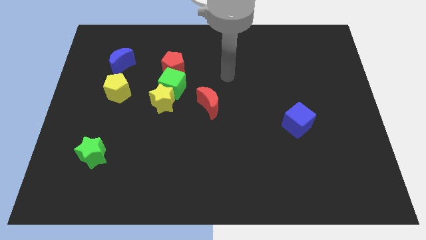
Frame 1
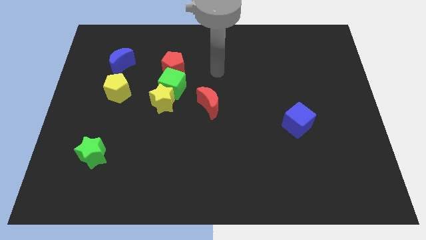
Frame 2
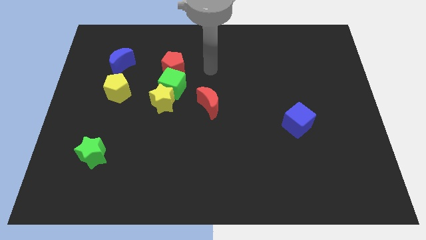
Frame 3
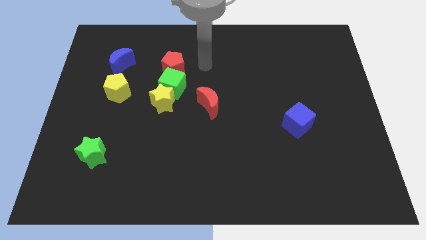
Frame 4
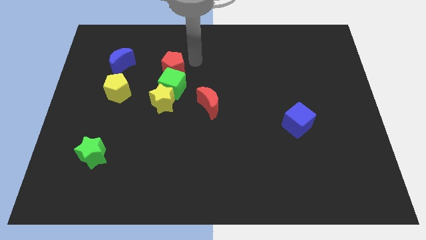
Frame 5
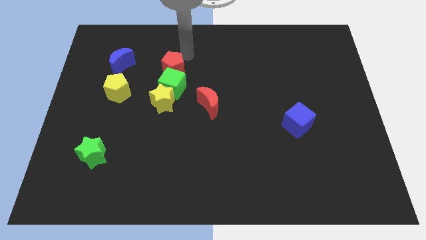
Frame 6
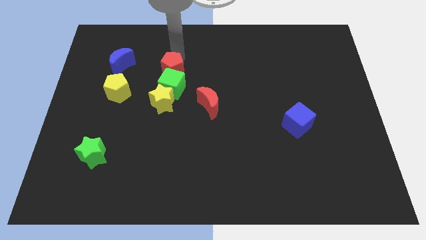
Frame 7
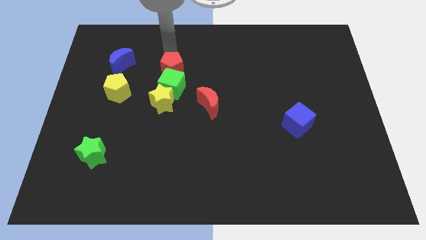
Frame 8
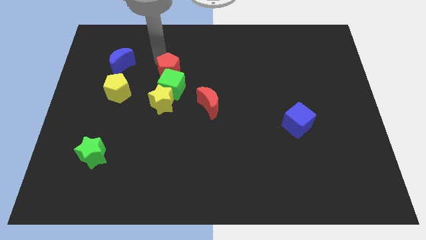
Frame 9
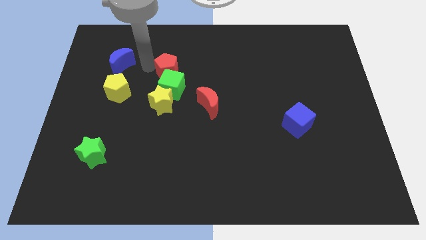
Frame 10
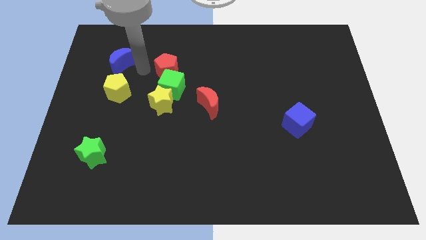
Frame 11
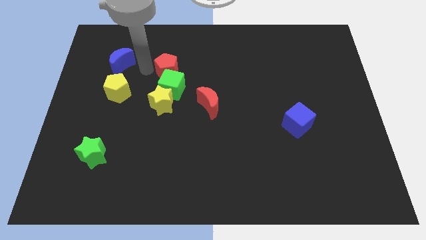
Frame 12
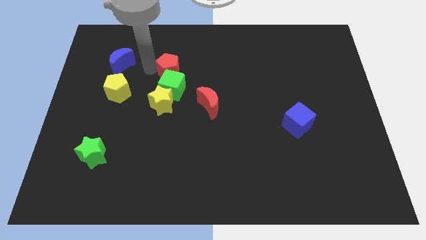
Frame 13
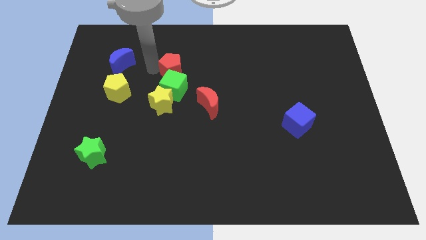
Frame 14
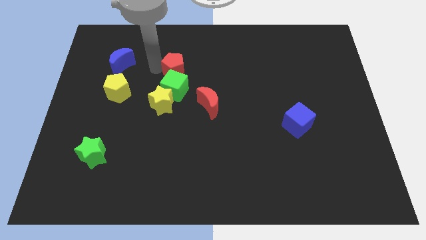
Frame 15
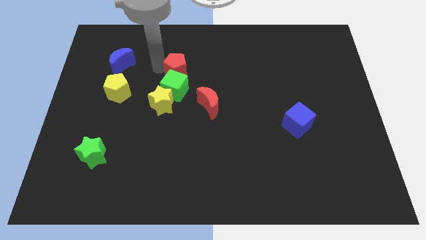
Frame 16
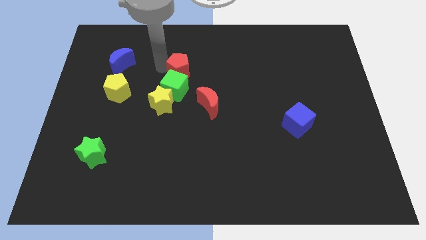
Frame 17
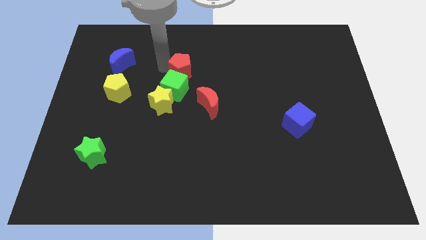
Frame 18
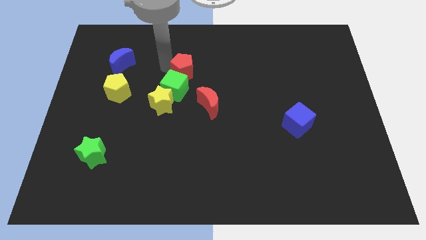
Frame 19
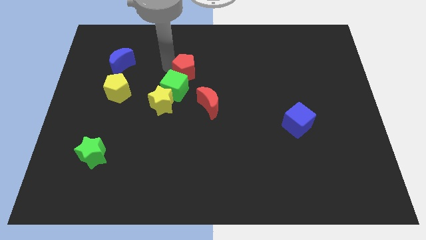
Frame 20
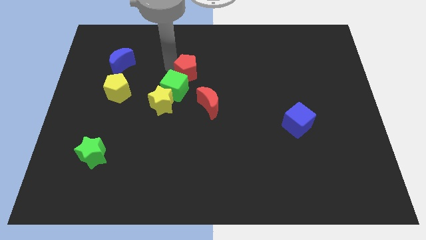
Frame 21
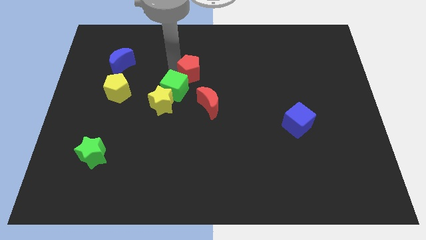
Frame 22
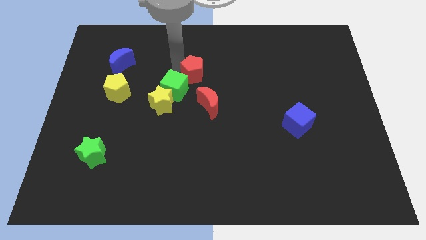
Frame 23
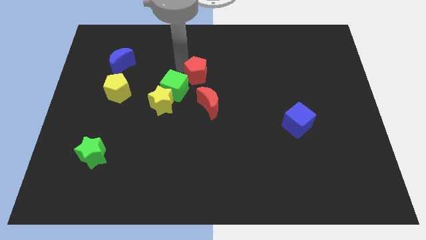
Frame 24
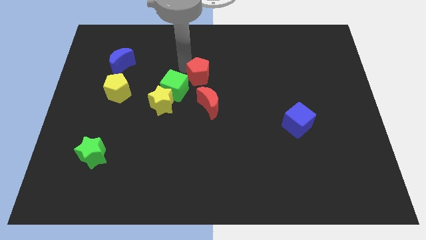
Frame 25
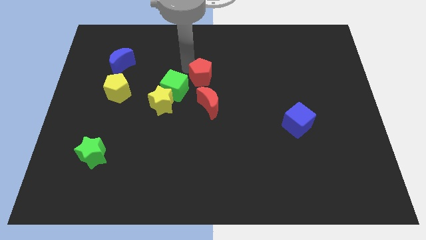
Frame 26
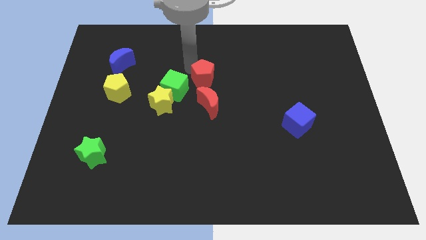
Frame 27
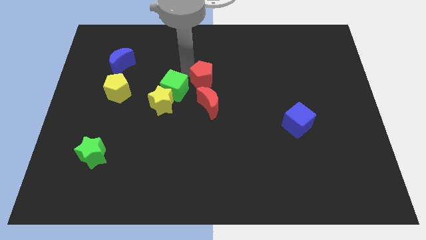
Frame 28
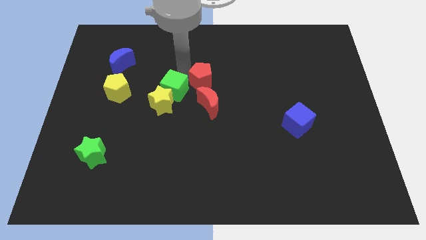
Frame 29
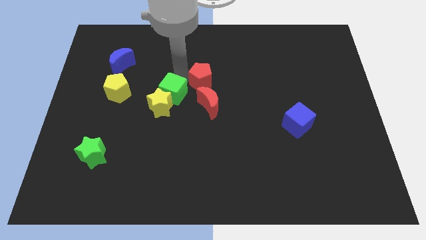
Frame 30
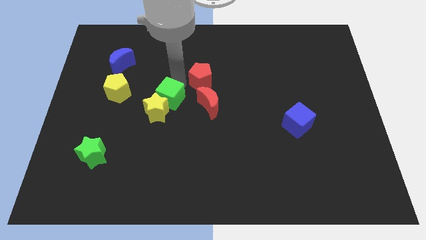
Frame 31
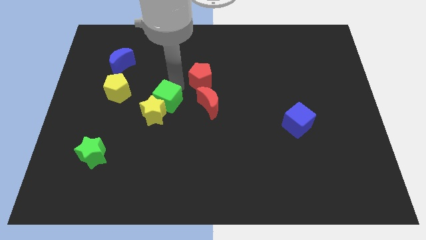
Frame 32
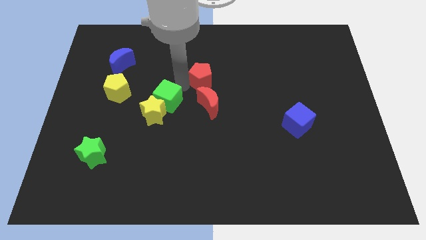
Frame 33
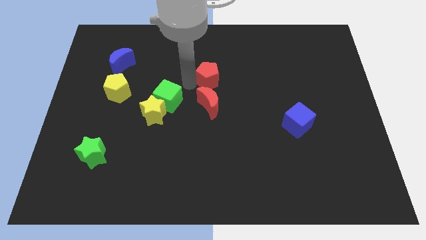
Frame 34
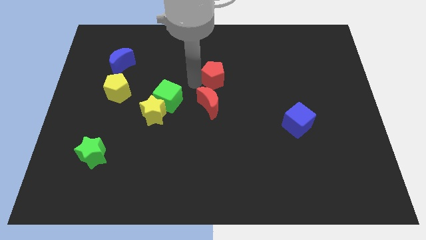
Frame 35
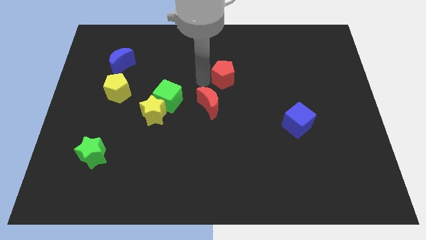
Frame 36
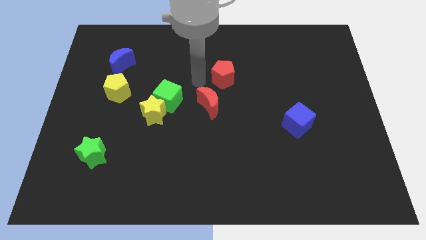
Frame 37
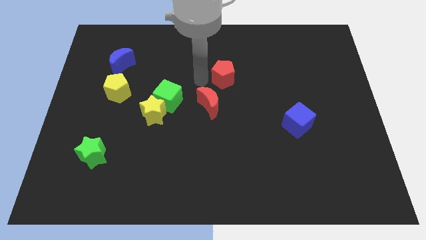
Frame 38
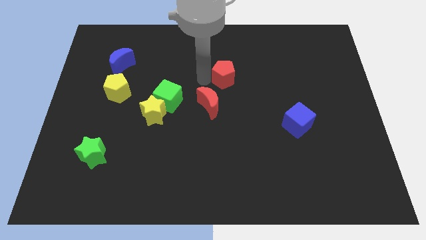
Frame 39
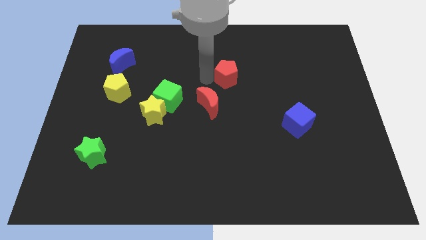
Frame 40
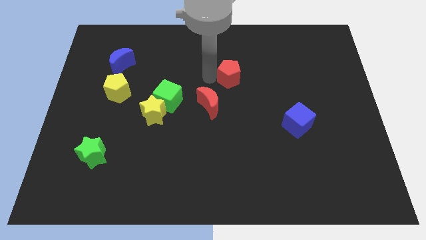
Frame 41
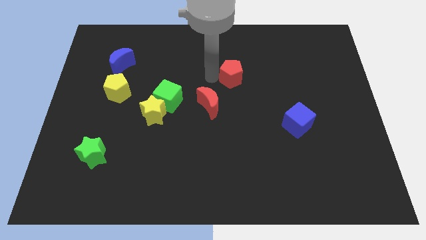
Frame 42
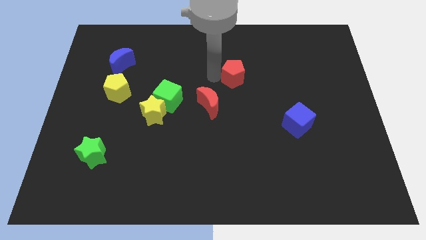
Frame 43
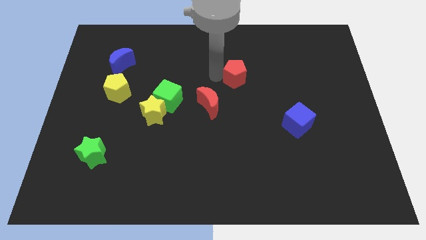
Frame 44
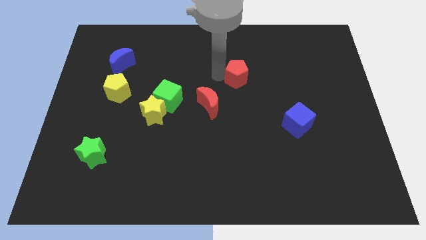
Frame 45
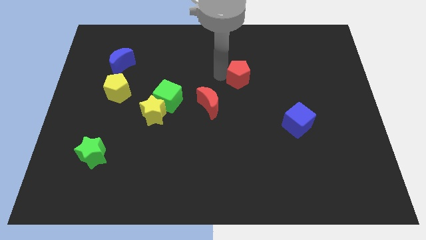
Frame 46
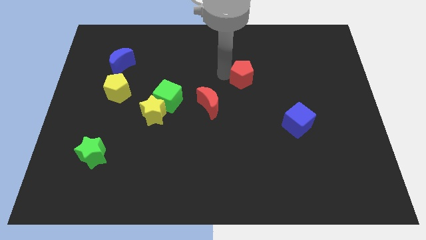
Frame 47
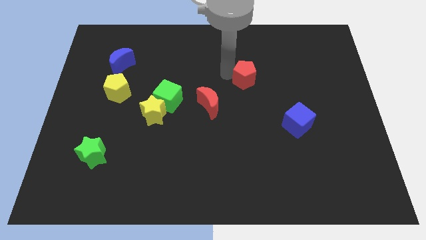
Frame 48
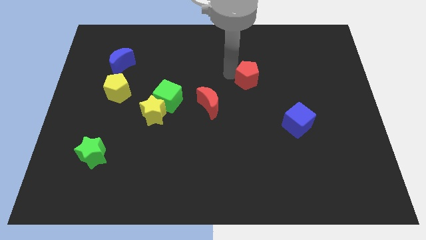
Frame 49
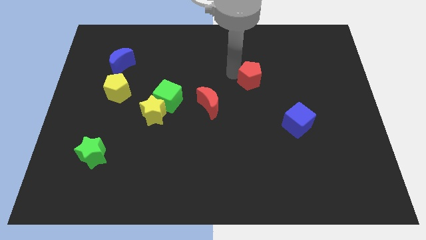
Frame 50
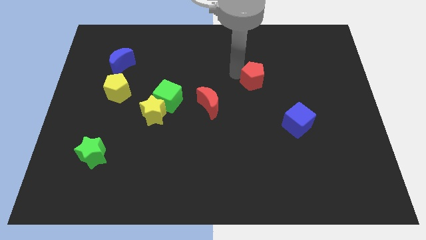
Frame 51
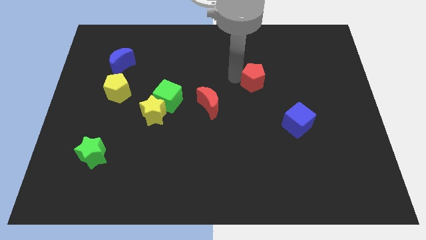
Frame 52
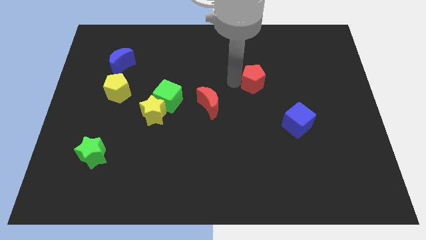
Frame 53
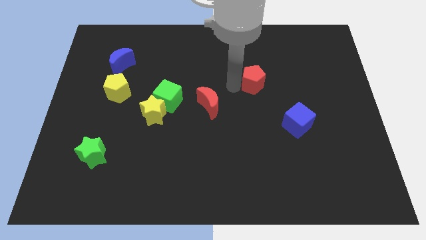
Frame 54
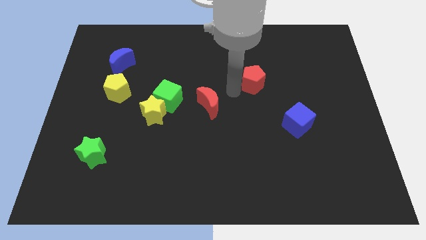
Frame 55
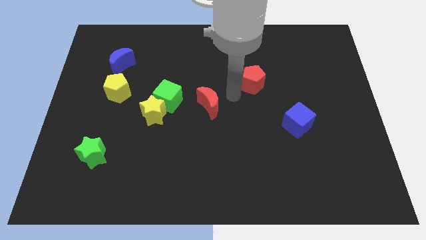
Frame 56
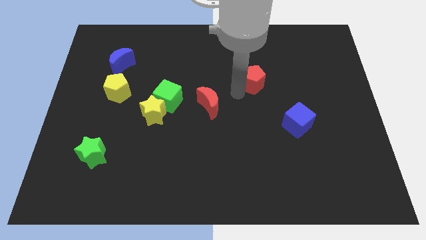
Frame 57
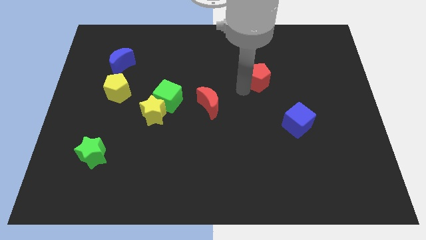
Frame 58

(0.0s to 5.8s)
move the red pentagon to the right

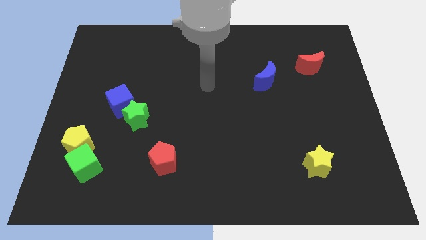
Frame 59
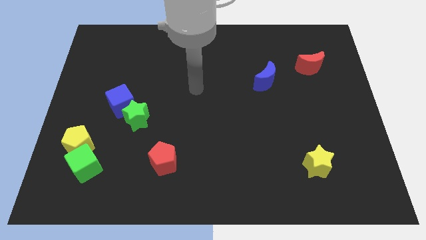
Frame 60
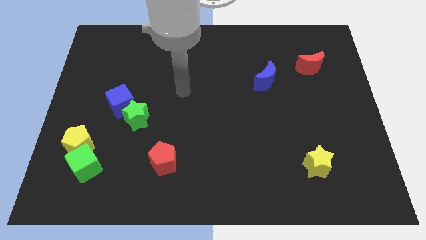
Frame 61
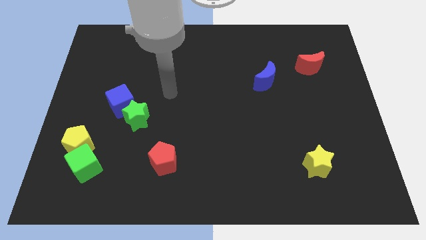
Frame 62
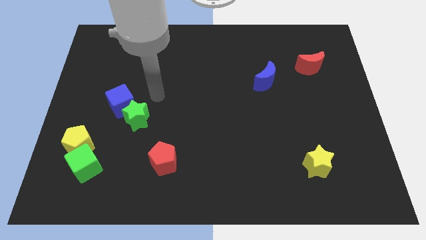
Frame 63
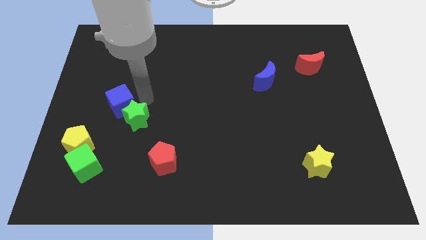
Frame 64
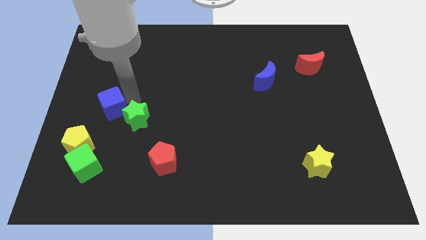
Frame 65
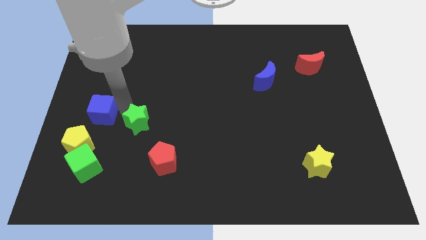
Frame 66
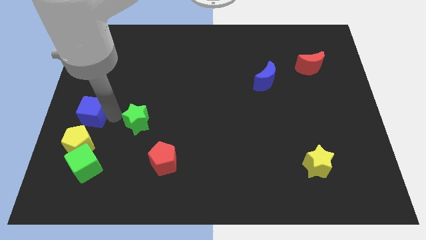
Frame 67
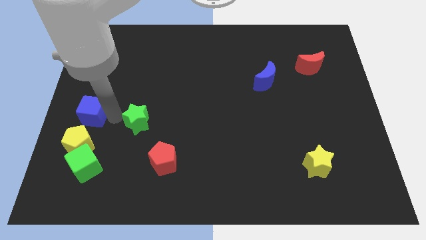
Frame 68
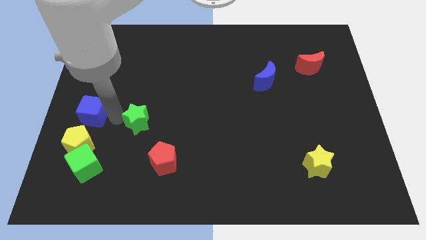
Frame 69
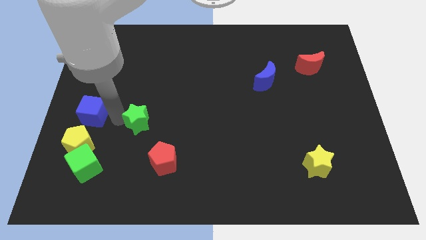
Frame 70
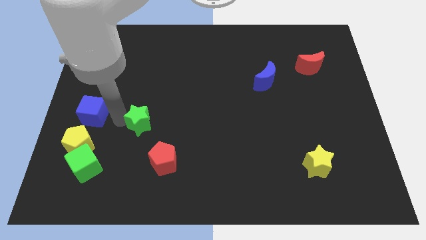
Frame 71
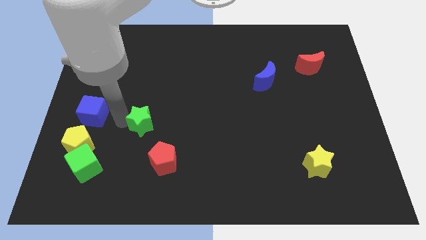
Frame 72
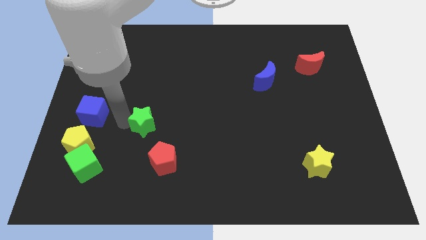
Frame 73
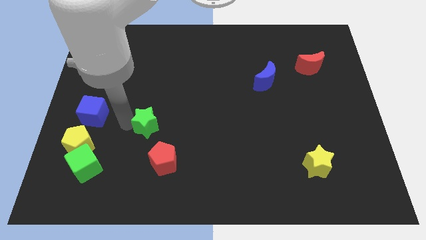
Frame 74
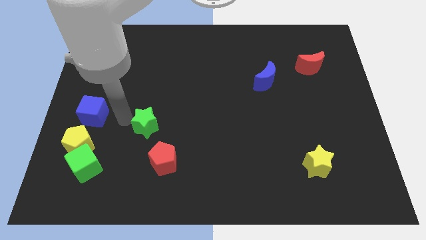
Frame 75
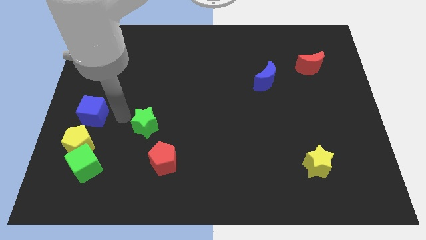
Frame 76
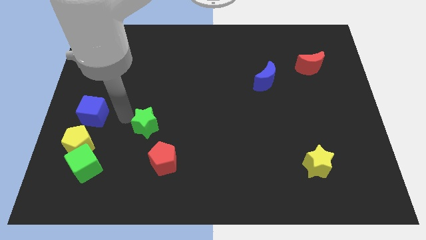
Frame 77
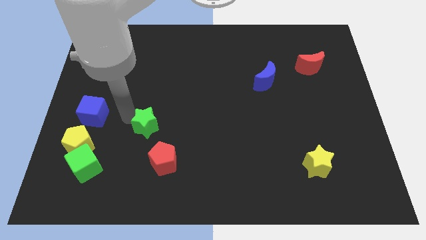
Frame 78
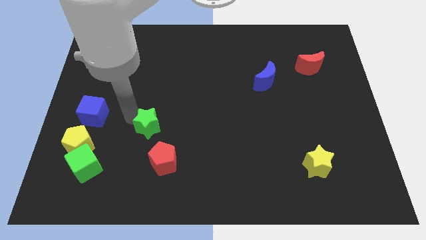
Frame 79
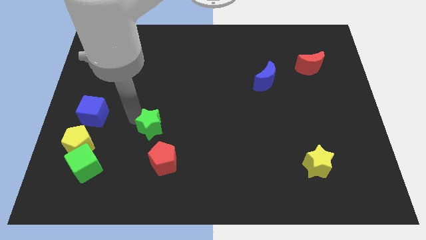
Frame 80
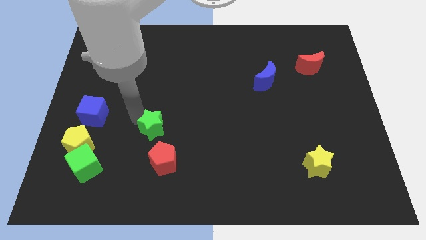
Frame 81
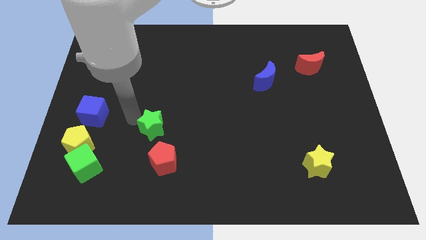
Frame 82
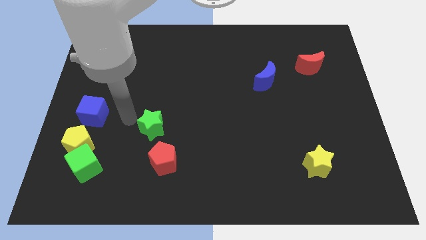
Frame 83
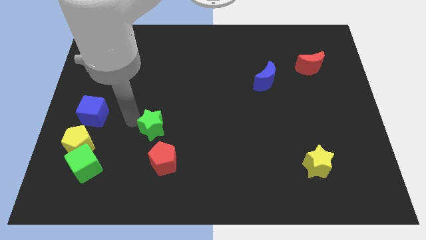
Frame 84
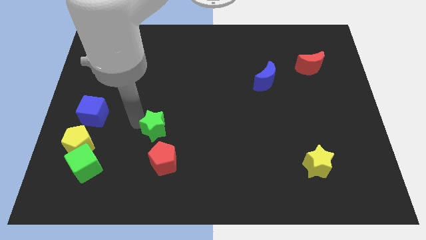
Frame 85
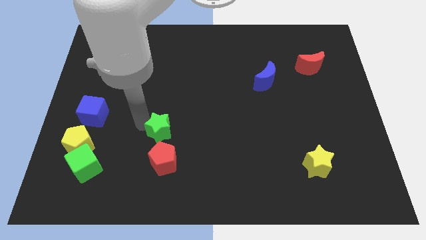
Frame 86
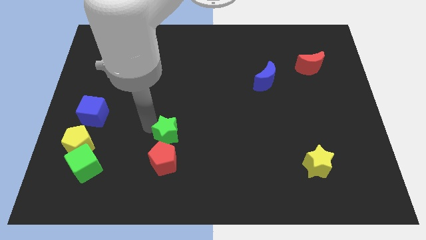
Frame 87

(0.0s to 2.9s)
slide the green star slightly diagonally down and to the right
